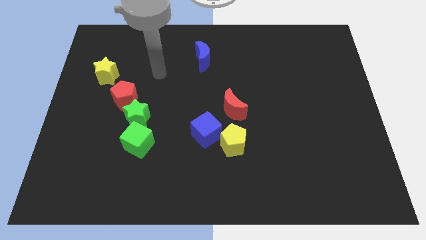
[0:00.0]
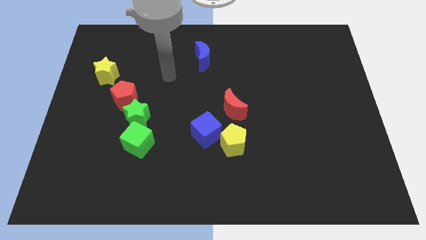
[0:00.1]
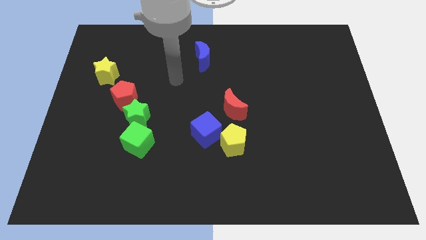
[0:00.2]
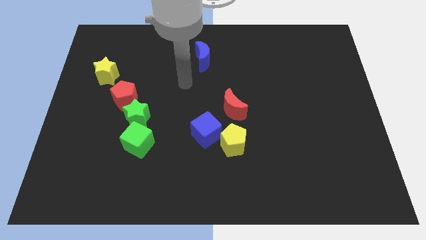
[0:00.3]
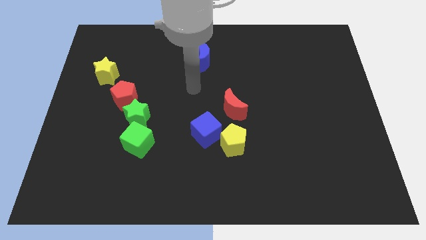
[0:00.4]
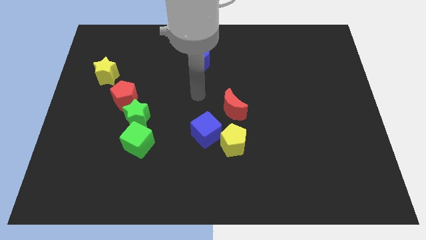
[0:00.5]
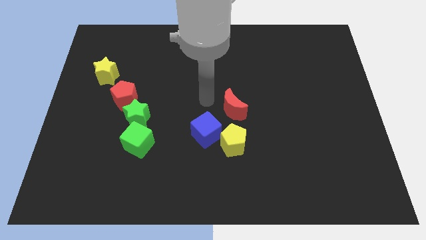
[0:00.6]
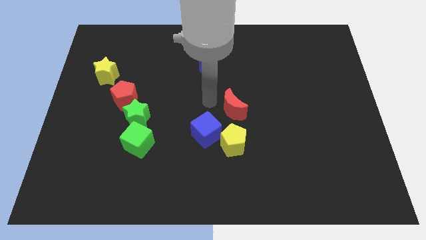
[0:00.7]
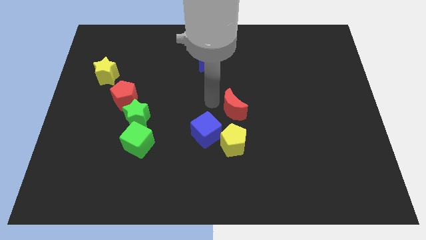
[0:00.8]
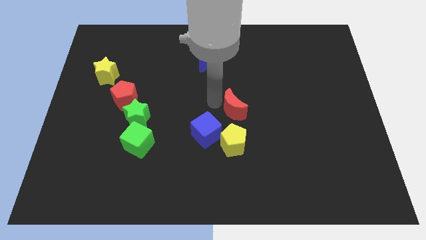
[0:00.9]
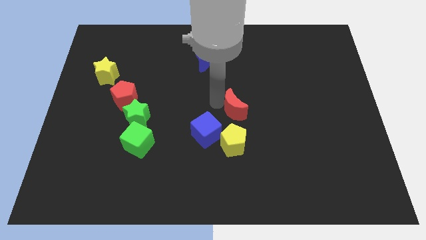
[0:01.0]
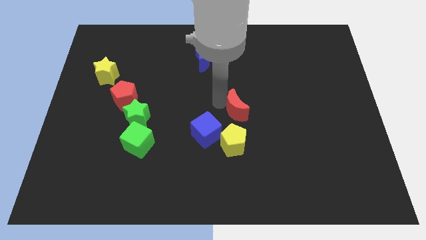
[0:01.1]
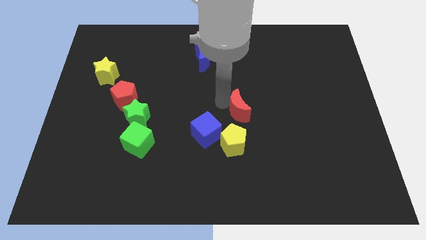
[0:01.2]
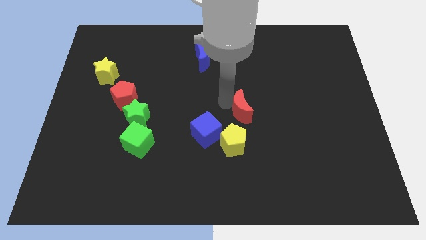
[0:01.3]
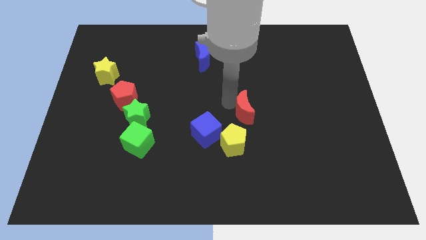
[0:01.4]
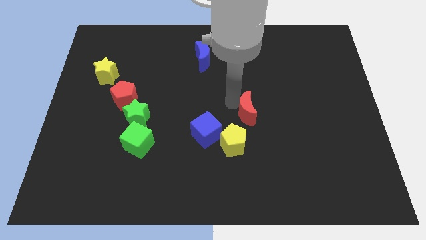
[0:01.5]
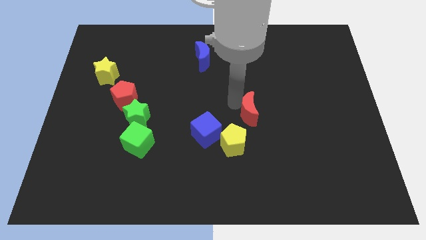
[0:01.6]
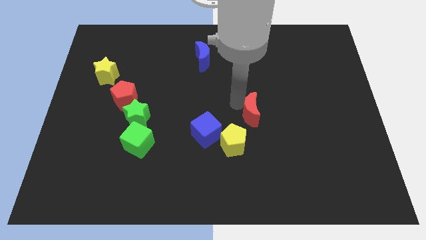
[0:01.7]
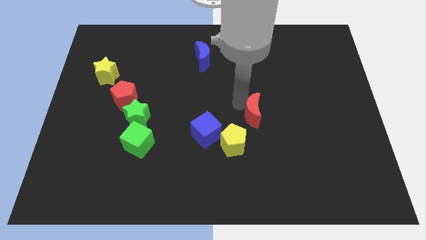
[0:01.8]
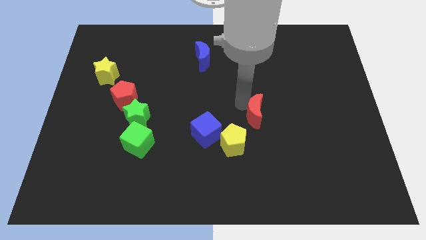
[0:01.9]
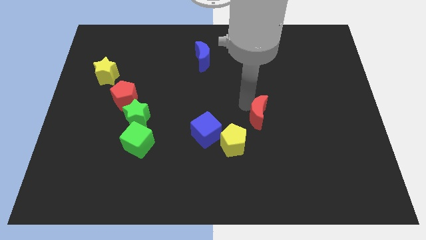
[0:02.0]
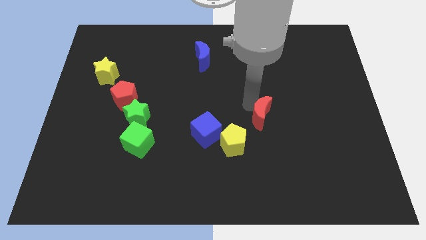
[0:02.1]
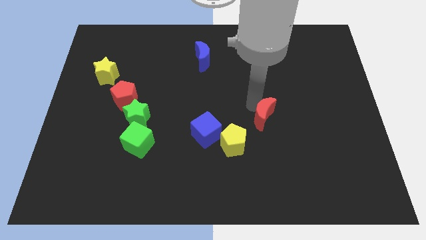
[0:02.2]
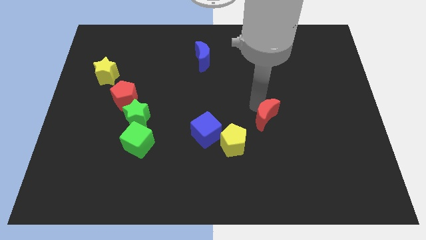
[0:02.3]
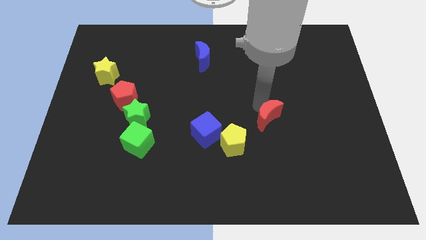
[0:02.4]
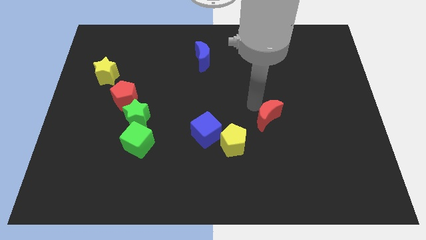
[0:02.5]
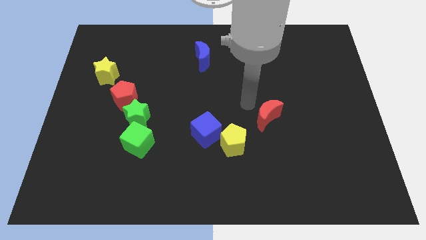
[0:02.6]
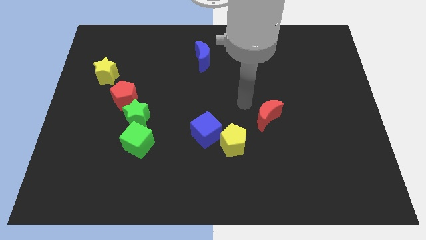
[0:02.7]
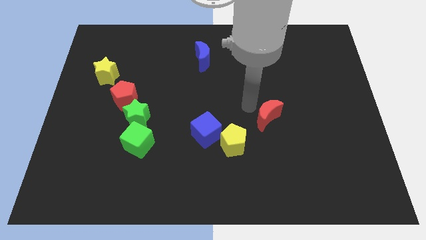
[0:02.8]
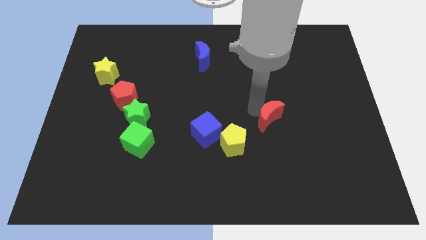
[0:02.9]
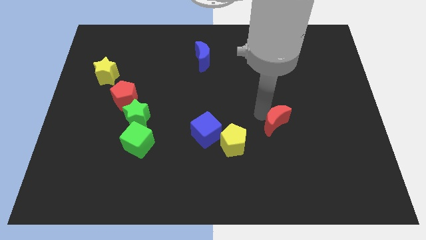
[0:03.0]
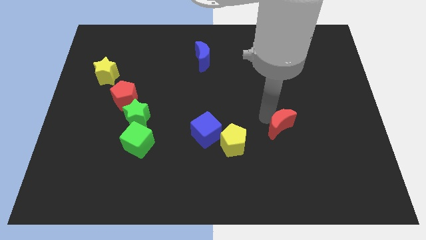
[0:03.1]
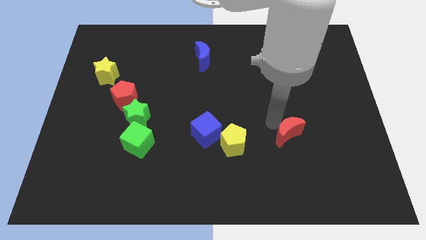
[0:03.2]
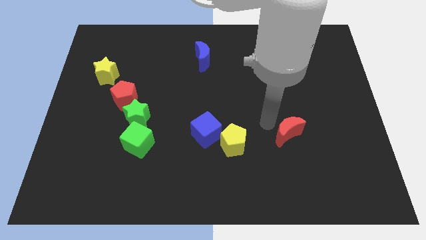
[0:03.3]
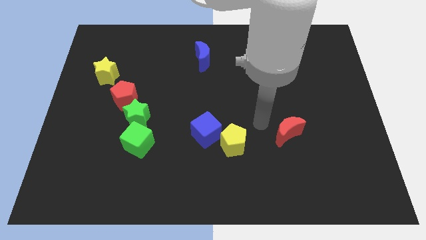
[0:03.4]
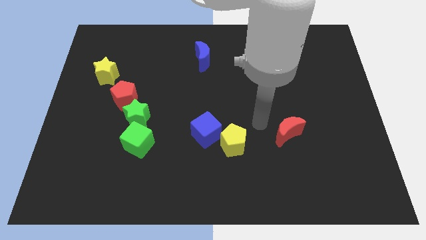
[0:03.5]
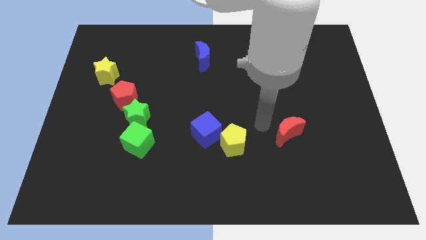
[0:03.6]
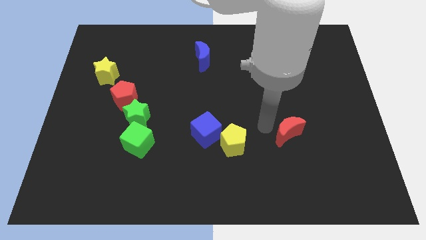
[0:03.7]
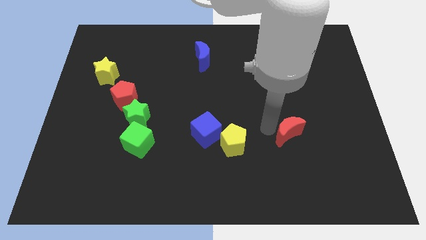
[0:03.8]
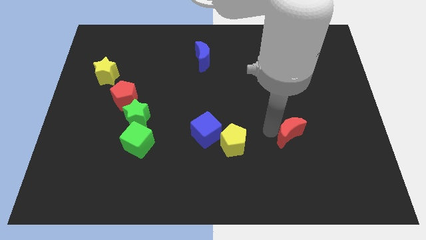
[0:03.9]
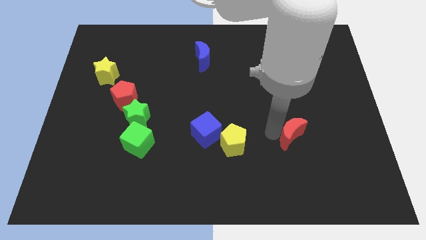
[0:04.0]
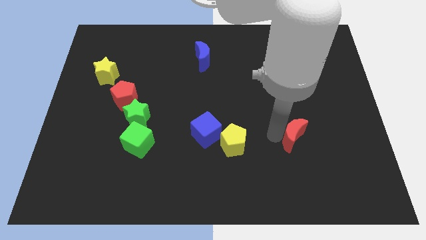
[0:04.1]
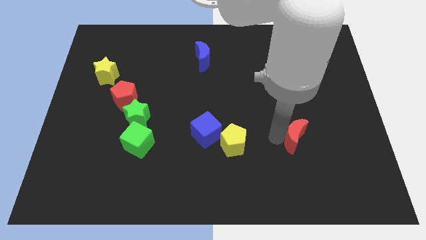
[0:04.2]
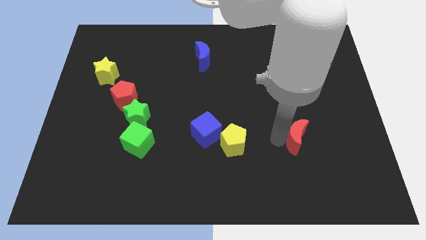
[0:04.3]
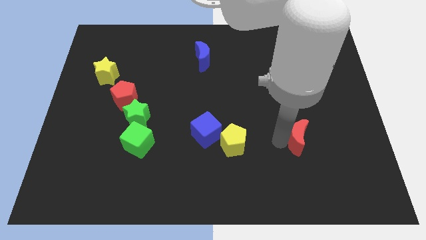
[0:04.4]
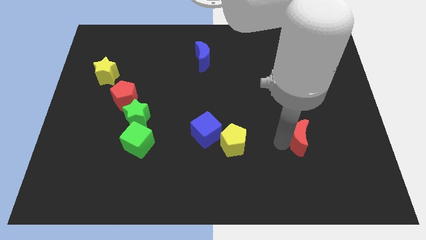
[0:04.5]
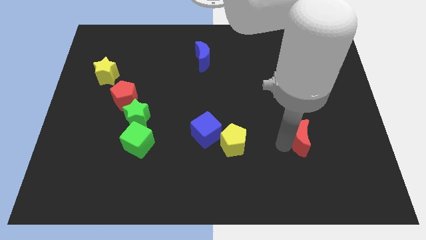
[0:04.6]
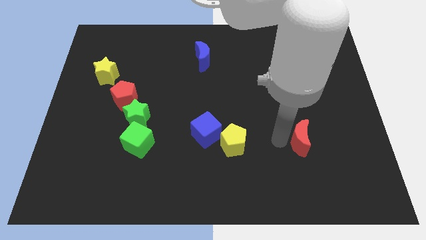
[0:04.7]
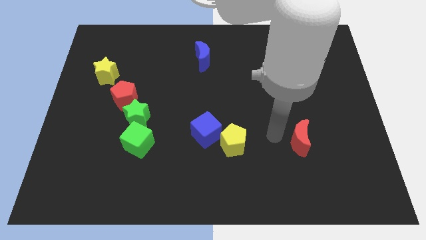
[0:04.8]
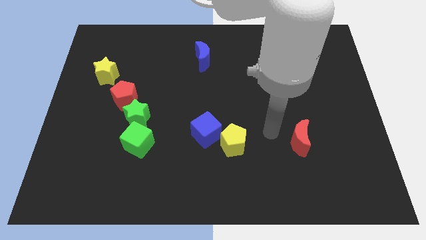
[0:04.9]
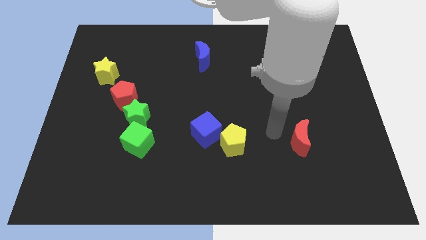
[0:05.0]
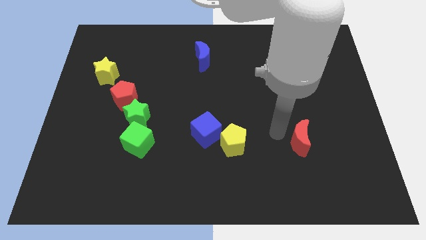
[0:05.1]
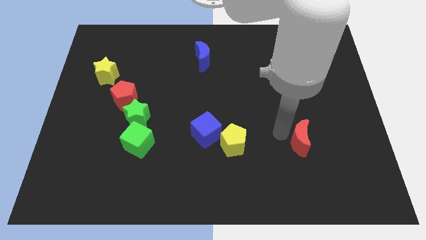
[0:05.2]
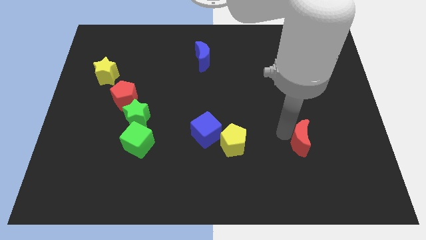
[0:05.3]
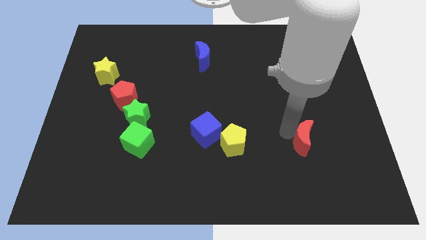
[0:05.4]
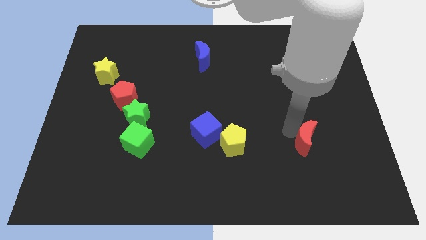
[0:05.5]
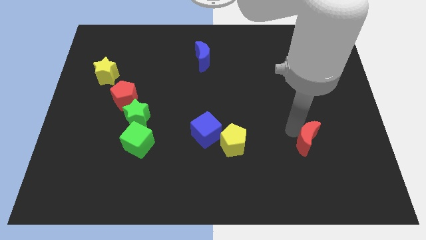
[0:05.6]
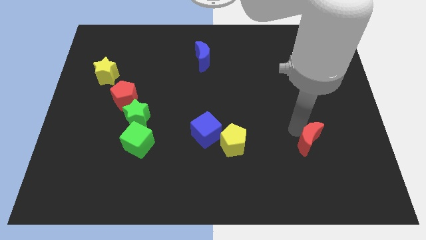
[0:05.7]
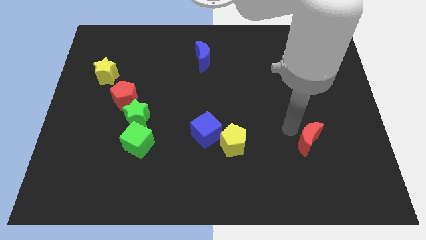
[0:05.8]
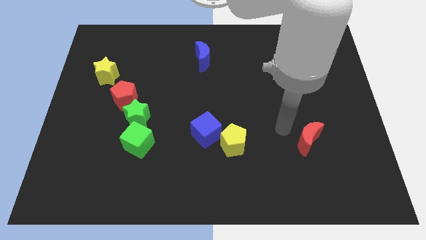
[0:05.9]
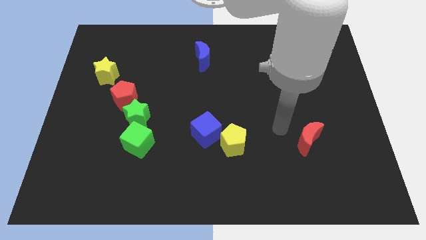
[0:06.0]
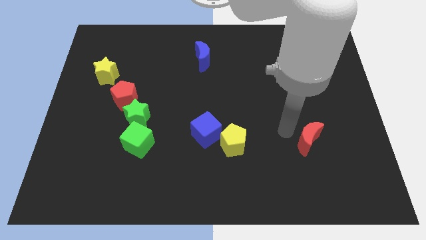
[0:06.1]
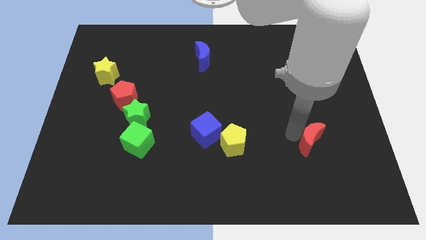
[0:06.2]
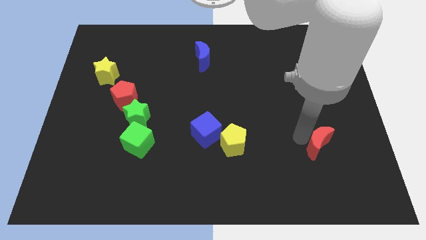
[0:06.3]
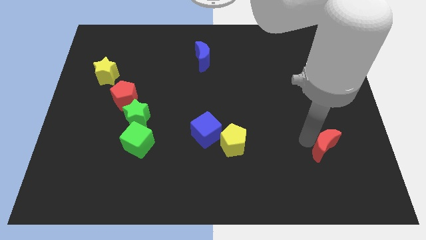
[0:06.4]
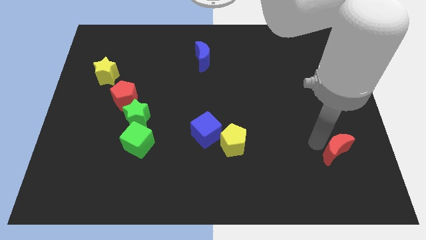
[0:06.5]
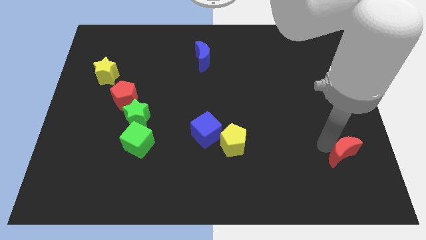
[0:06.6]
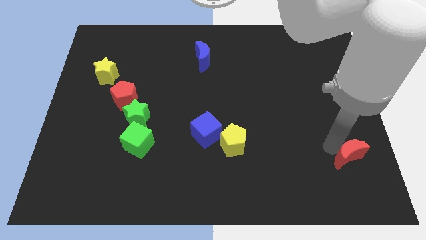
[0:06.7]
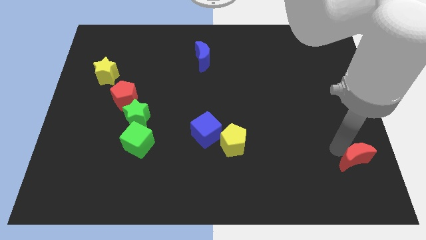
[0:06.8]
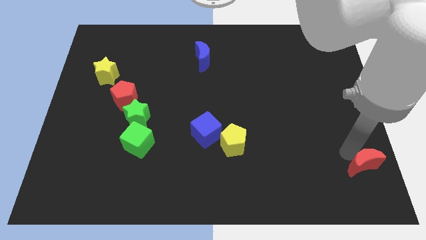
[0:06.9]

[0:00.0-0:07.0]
slide the red moon to the lower right corner

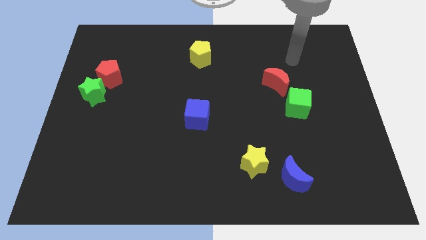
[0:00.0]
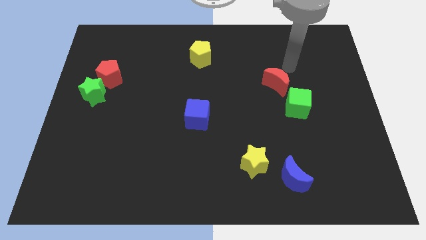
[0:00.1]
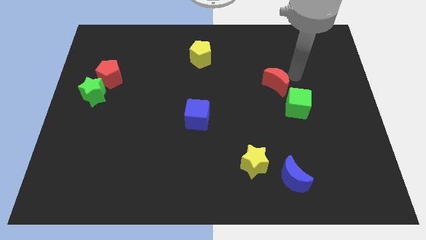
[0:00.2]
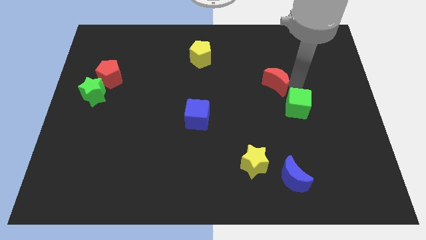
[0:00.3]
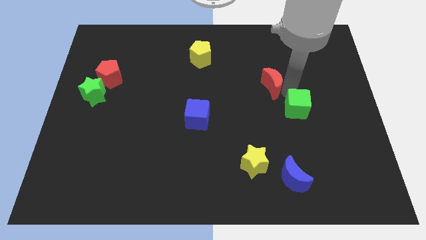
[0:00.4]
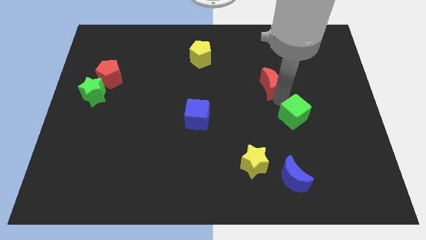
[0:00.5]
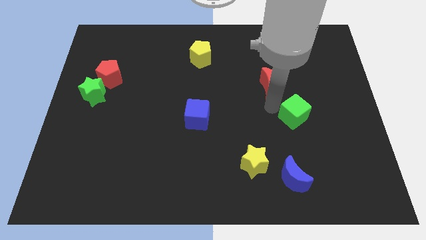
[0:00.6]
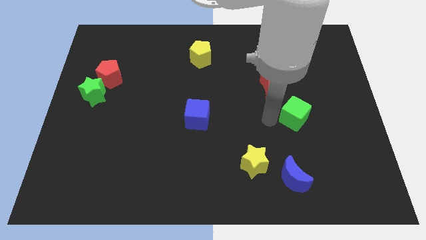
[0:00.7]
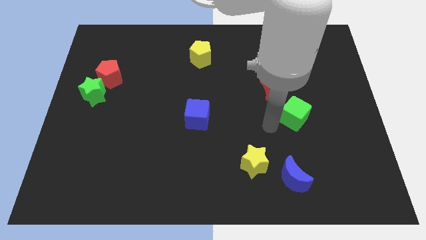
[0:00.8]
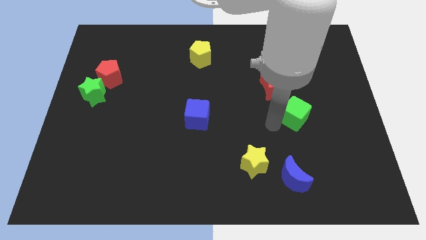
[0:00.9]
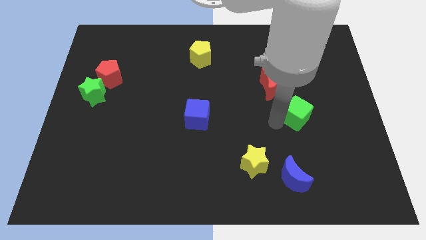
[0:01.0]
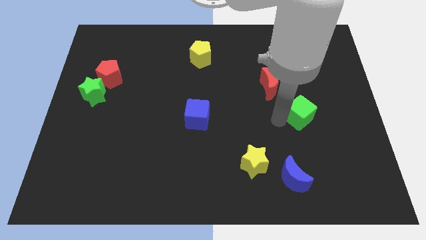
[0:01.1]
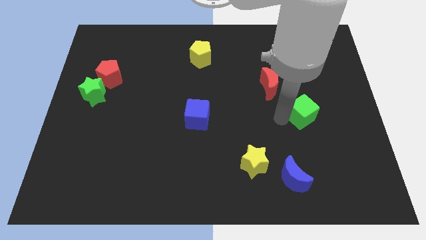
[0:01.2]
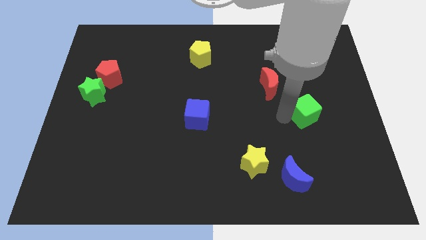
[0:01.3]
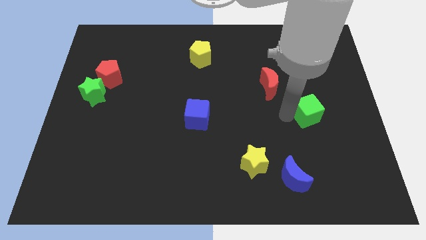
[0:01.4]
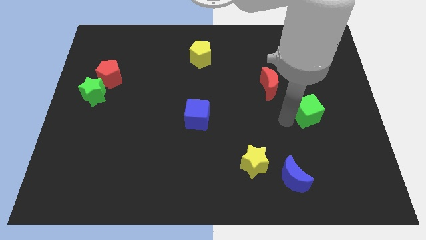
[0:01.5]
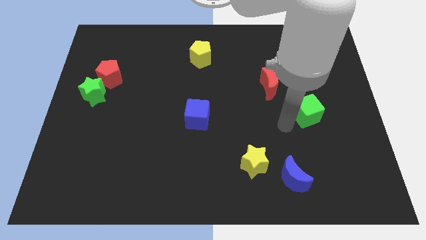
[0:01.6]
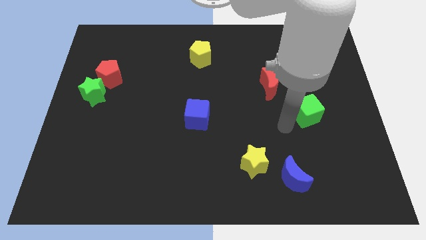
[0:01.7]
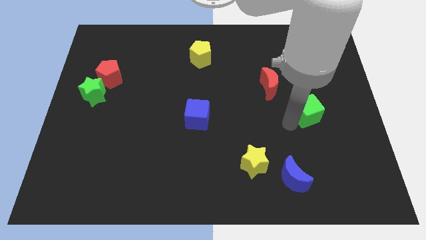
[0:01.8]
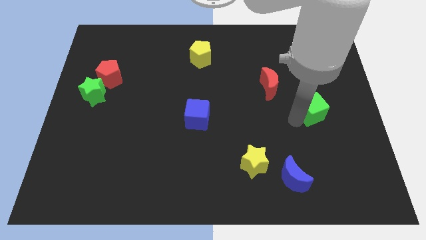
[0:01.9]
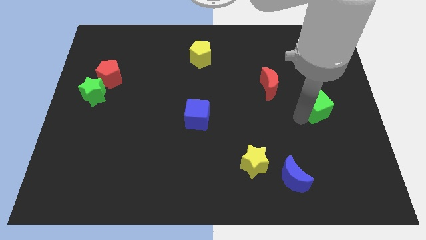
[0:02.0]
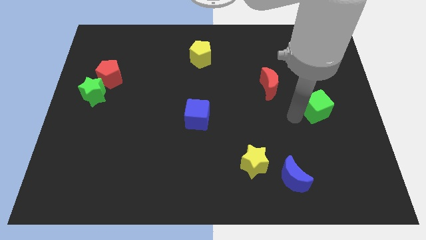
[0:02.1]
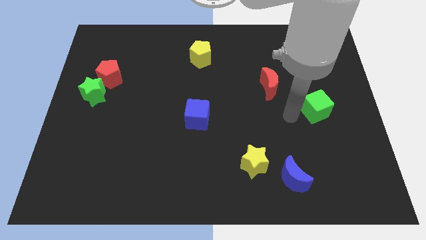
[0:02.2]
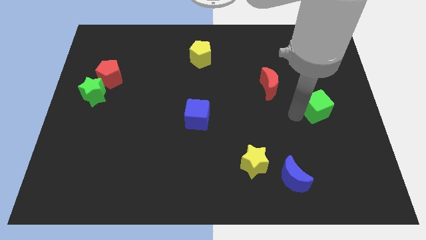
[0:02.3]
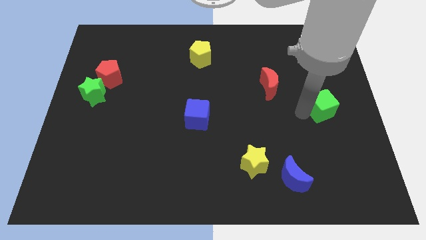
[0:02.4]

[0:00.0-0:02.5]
push the green cube to the right side
